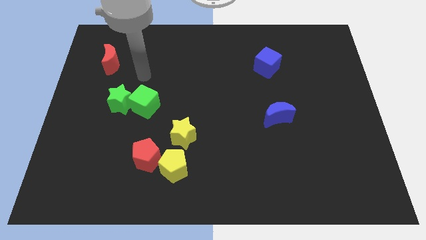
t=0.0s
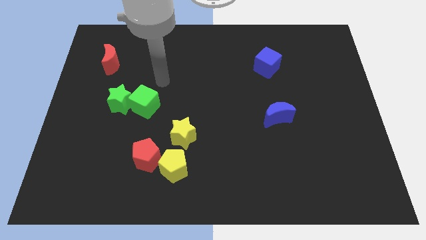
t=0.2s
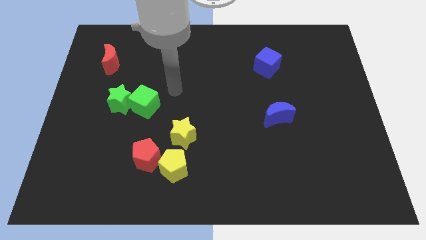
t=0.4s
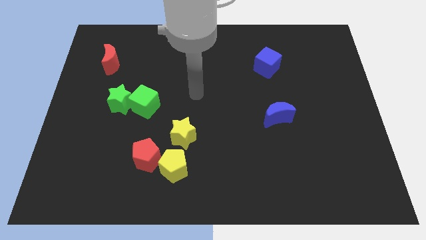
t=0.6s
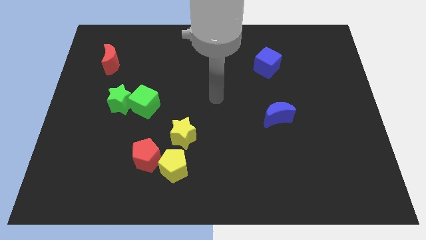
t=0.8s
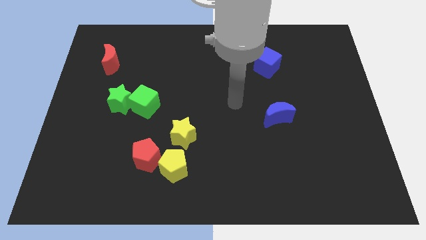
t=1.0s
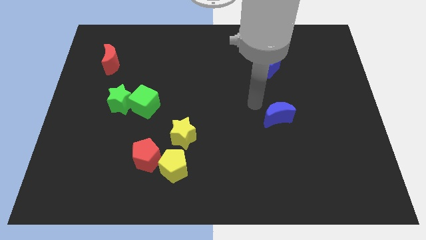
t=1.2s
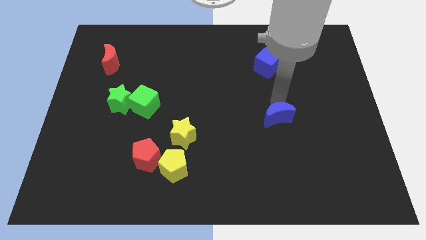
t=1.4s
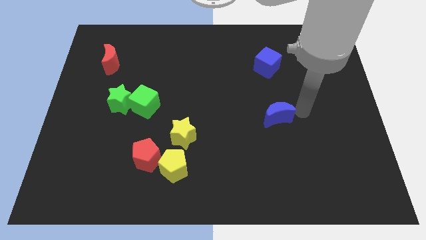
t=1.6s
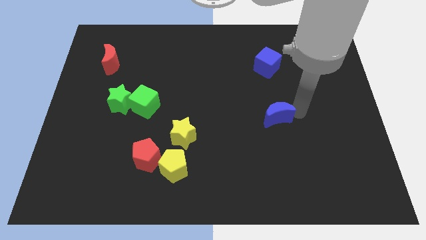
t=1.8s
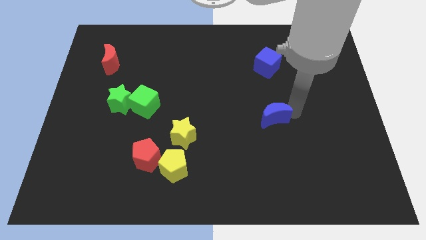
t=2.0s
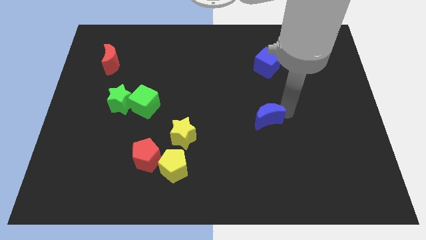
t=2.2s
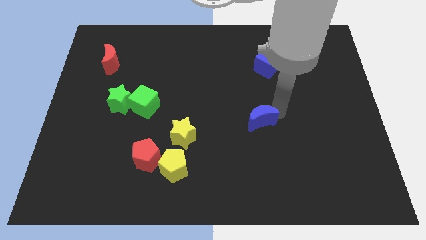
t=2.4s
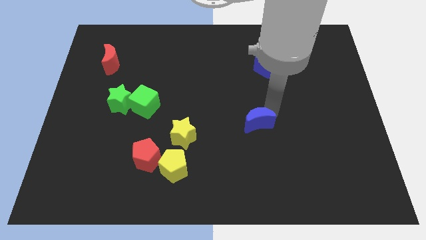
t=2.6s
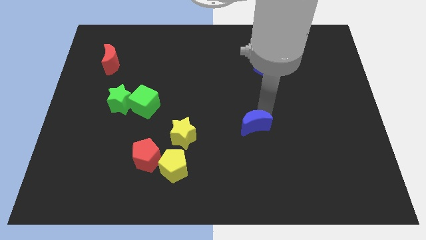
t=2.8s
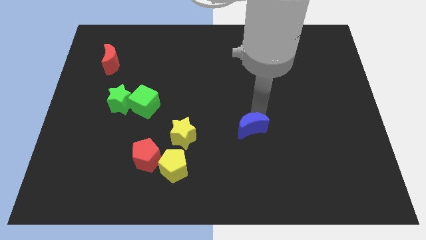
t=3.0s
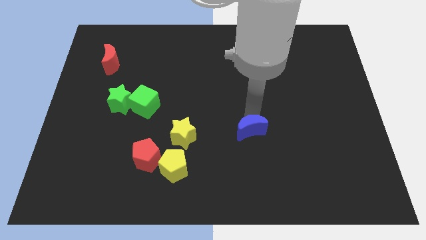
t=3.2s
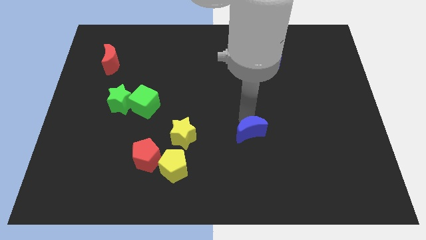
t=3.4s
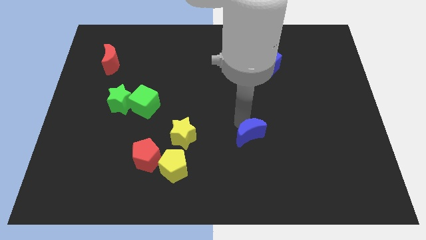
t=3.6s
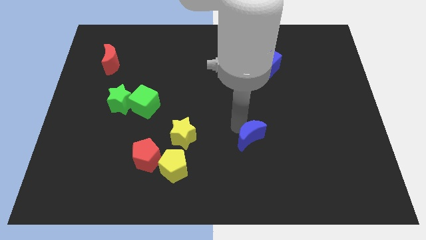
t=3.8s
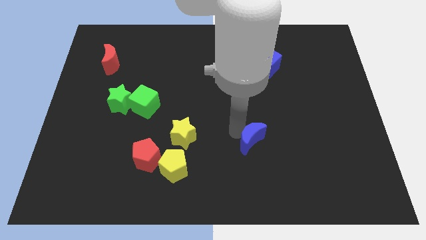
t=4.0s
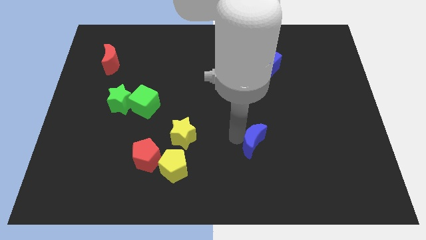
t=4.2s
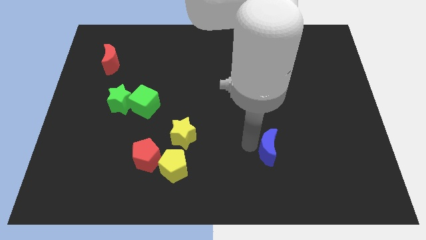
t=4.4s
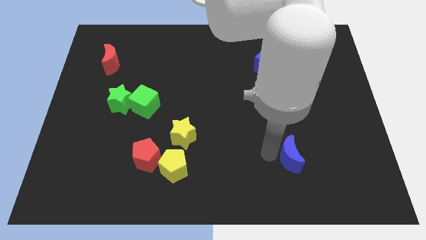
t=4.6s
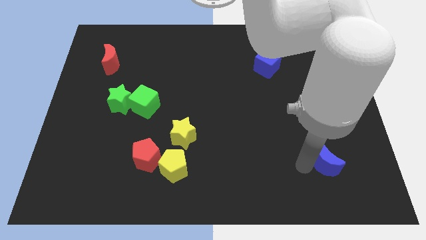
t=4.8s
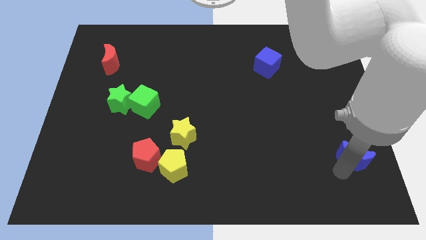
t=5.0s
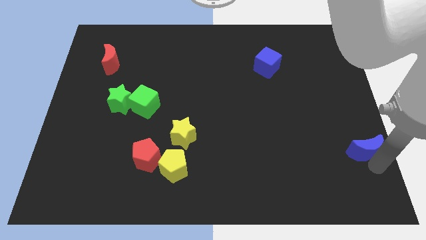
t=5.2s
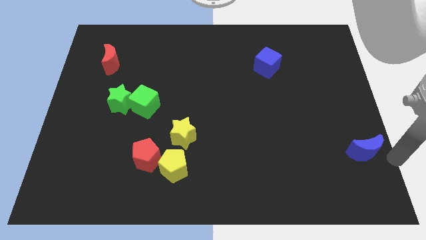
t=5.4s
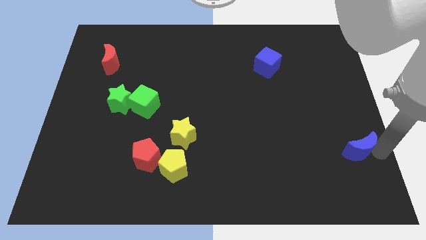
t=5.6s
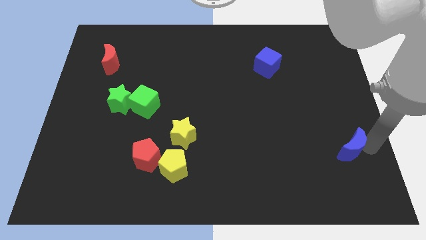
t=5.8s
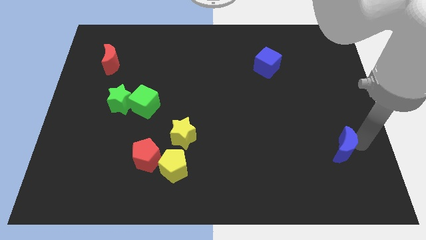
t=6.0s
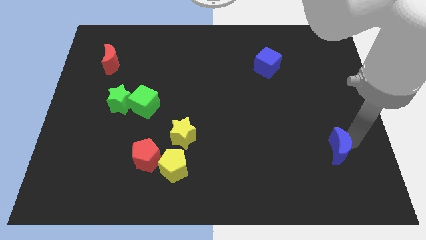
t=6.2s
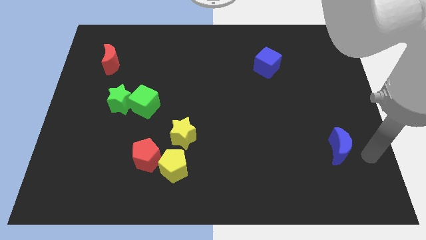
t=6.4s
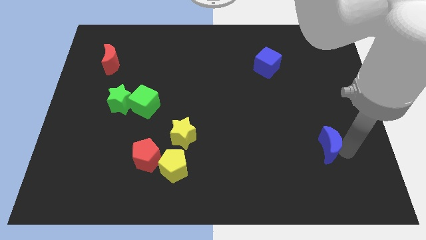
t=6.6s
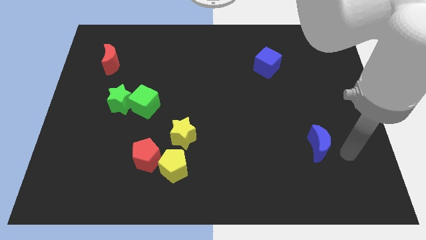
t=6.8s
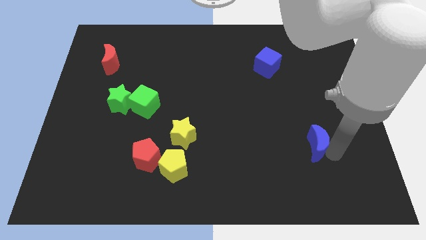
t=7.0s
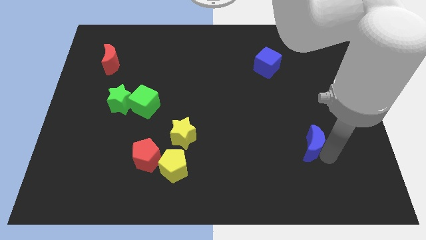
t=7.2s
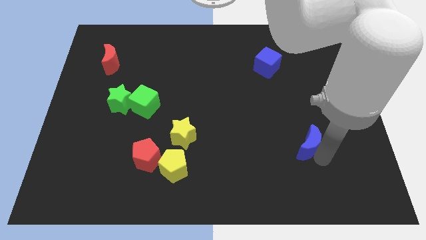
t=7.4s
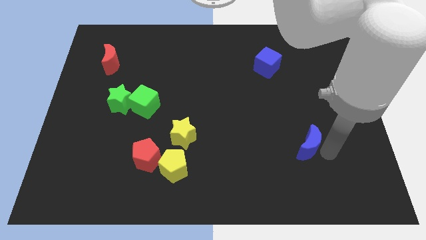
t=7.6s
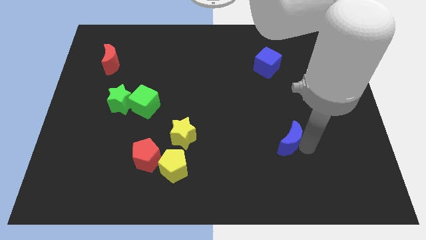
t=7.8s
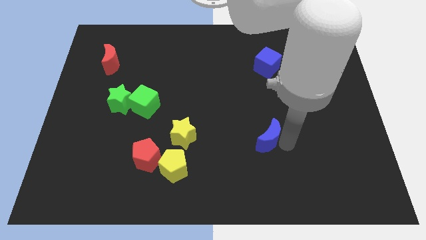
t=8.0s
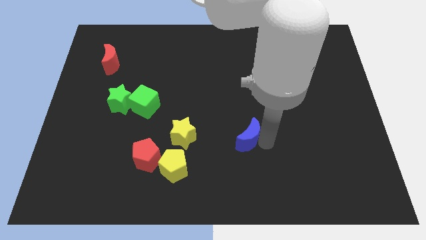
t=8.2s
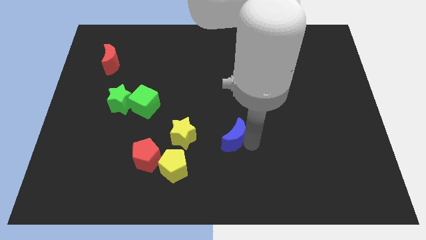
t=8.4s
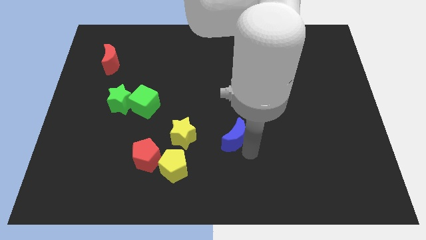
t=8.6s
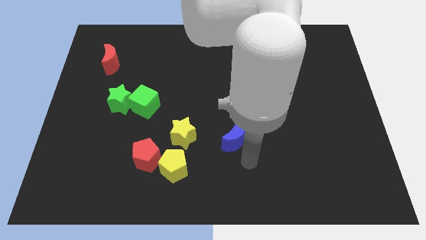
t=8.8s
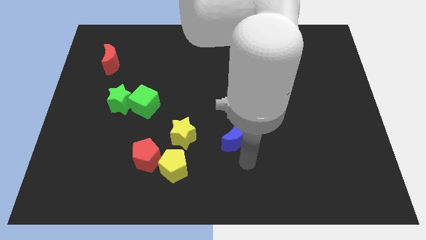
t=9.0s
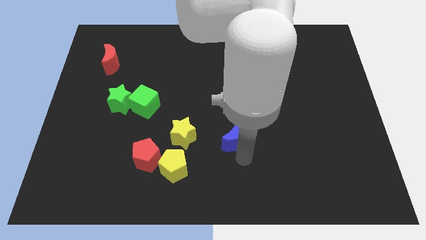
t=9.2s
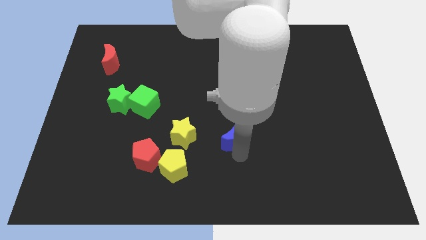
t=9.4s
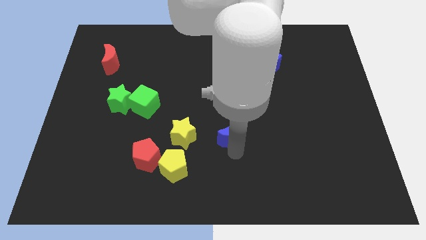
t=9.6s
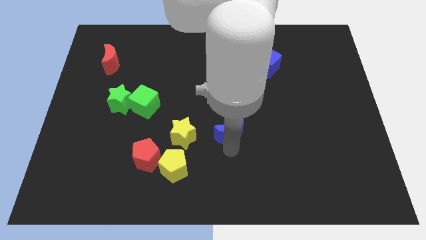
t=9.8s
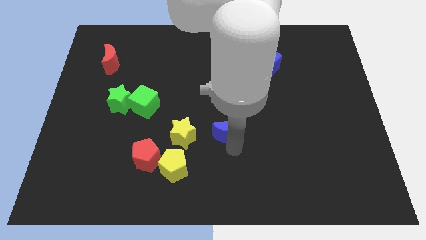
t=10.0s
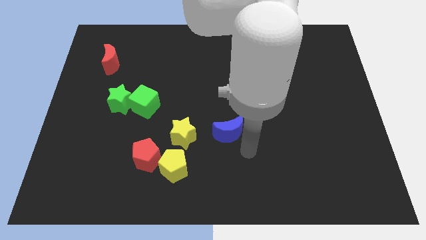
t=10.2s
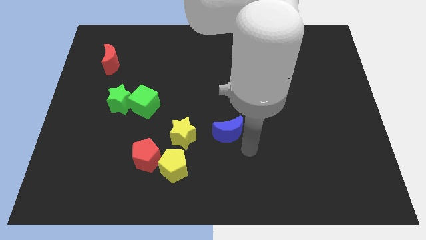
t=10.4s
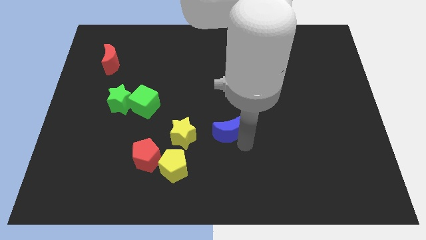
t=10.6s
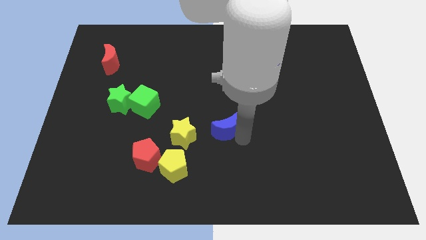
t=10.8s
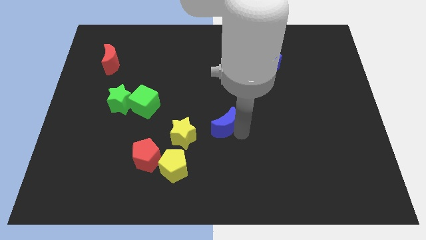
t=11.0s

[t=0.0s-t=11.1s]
slide the blue moon diagonally up and to the right of the yellow star

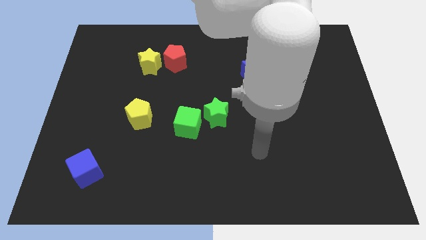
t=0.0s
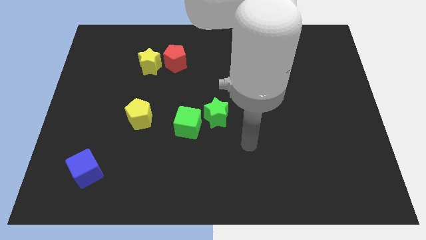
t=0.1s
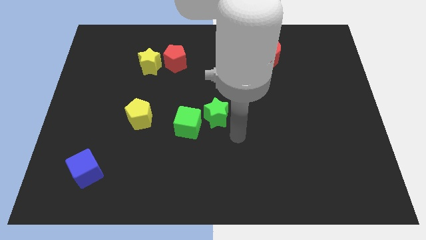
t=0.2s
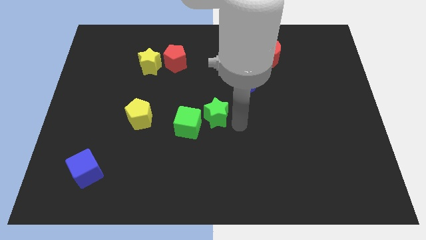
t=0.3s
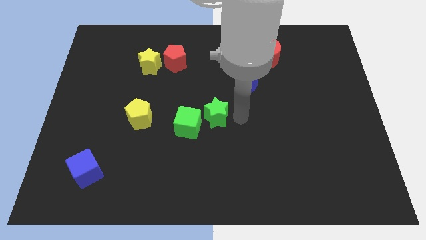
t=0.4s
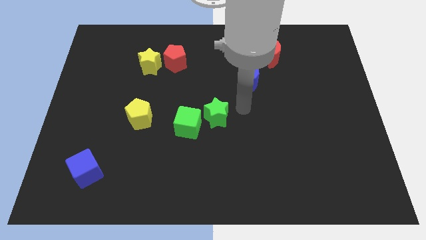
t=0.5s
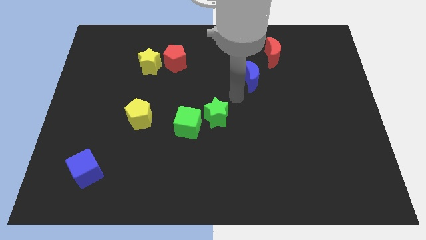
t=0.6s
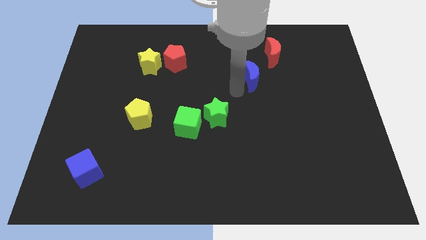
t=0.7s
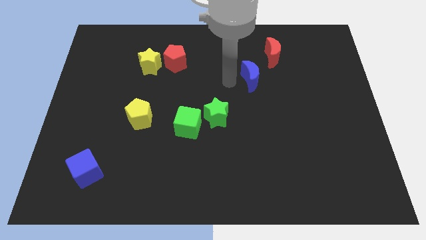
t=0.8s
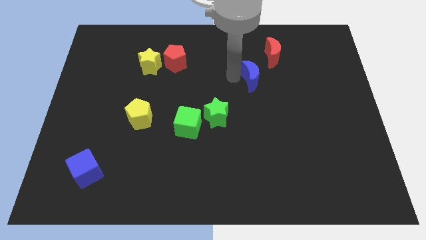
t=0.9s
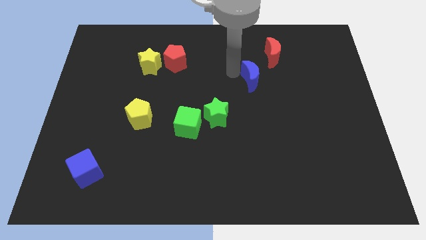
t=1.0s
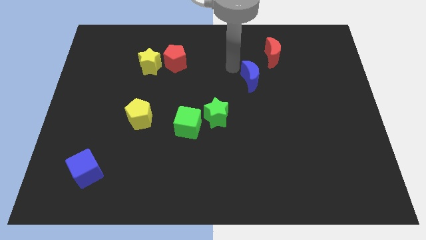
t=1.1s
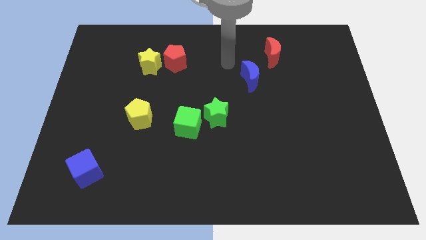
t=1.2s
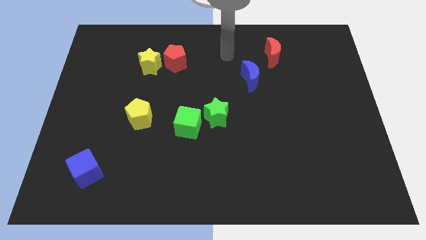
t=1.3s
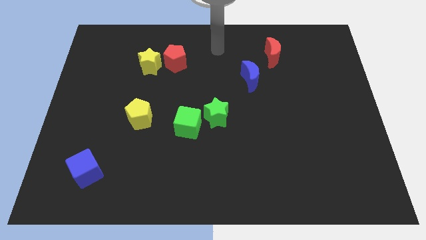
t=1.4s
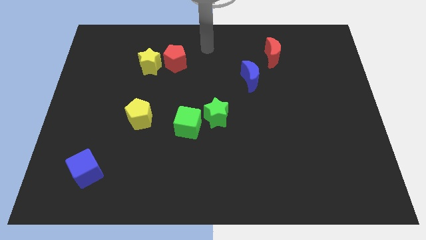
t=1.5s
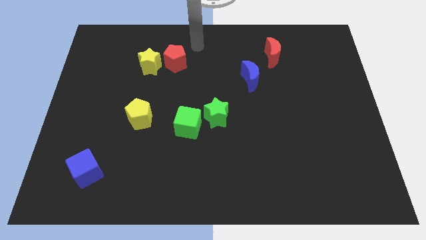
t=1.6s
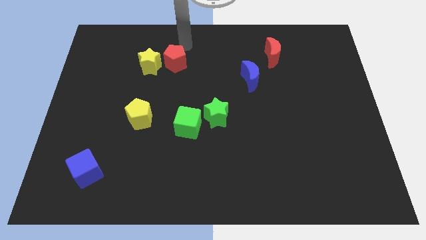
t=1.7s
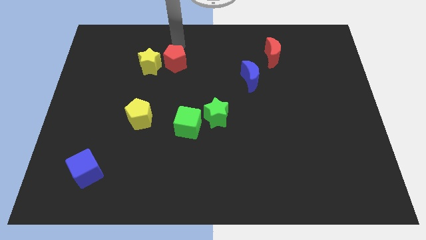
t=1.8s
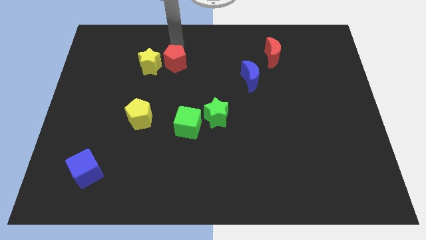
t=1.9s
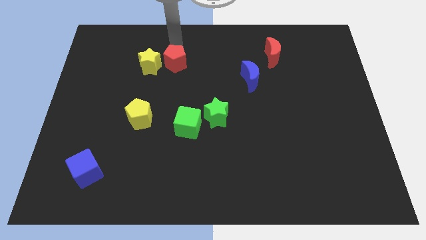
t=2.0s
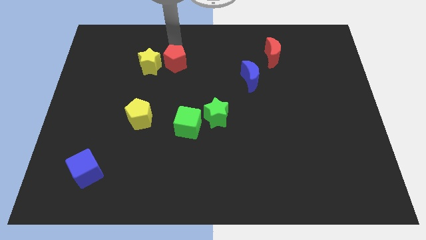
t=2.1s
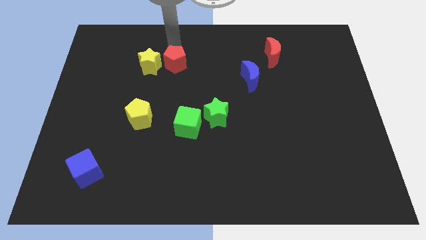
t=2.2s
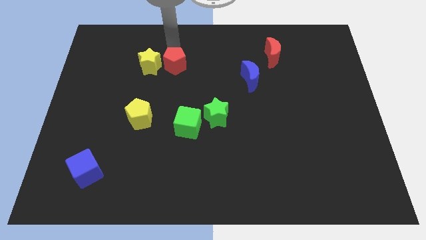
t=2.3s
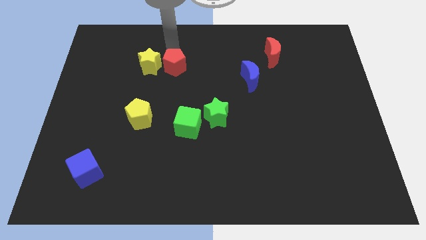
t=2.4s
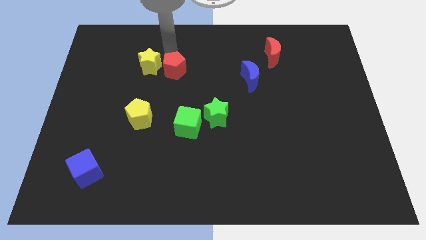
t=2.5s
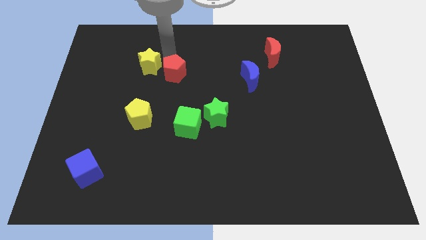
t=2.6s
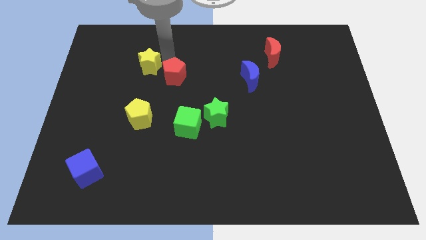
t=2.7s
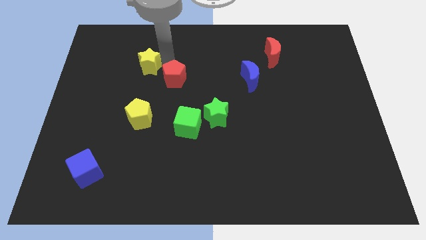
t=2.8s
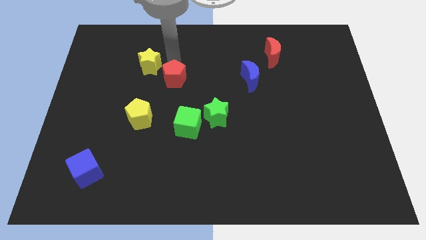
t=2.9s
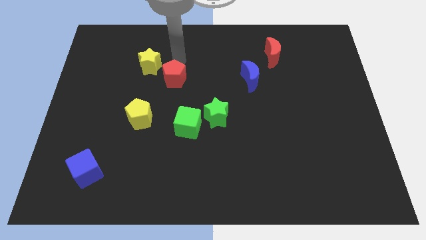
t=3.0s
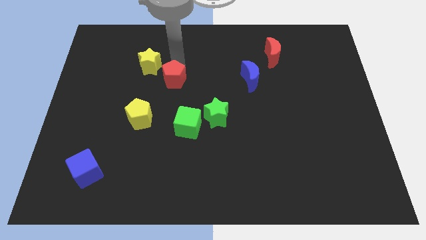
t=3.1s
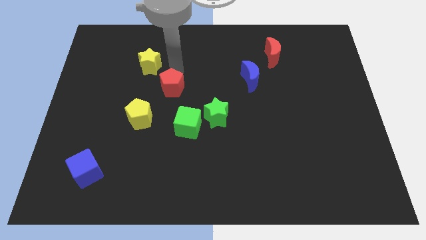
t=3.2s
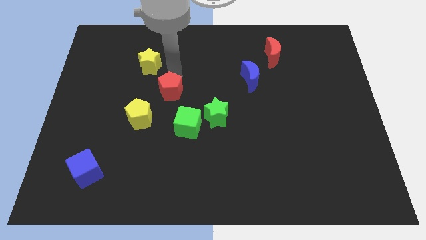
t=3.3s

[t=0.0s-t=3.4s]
put the red pentagon diagonally up and to the left of the green cube
